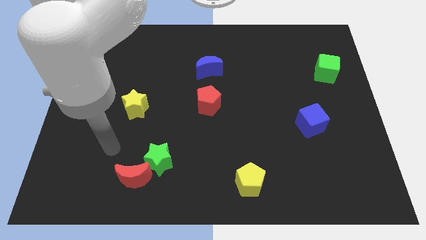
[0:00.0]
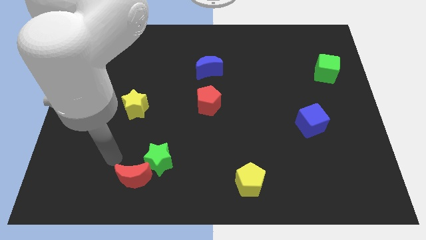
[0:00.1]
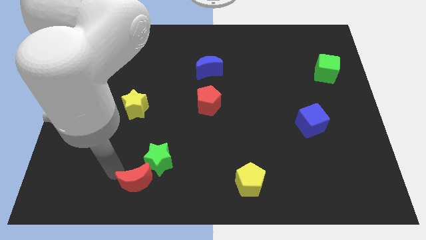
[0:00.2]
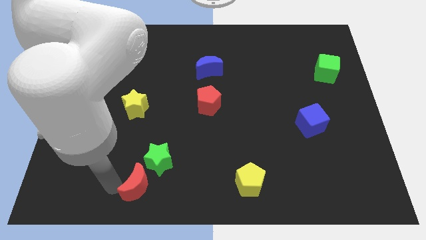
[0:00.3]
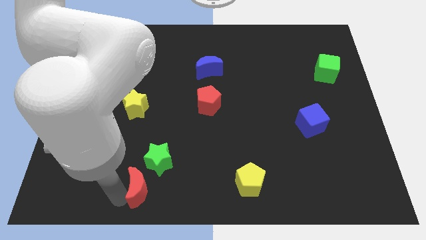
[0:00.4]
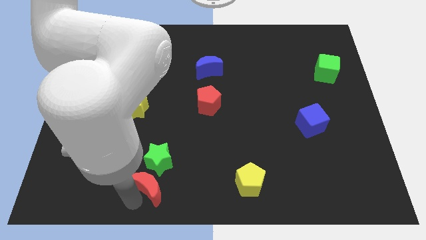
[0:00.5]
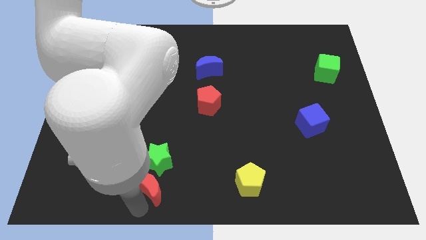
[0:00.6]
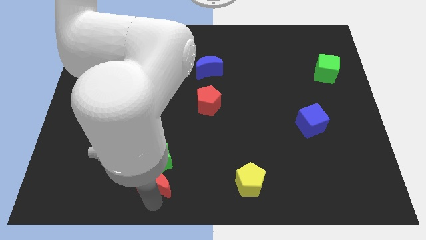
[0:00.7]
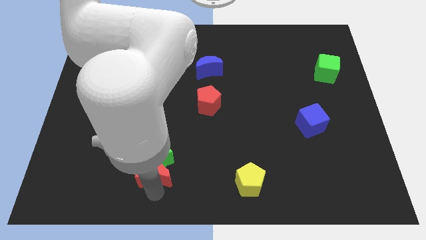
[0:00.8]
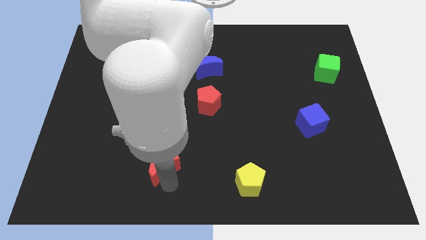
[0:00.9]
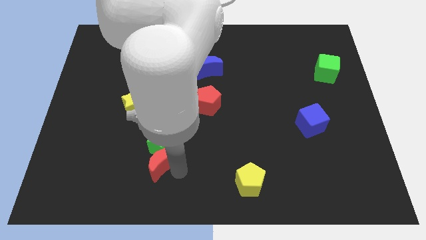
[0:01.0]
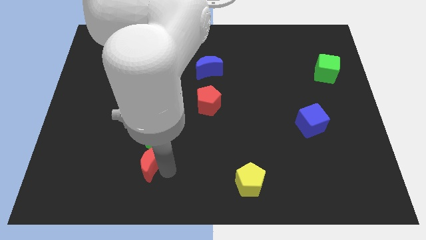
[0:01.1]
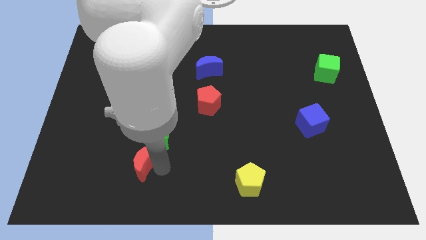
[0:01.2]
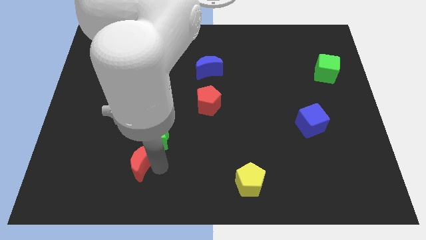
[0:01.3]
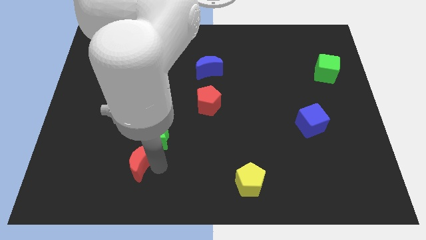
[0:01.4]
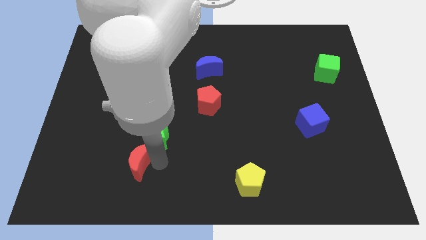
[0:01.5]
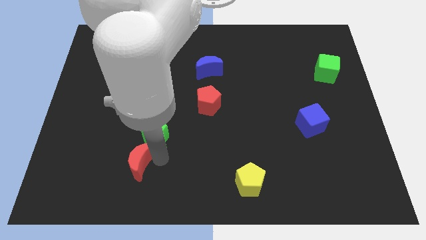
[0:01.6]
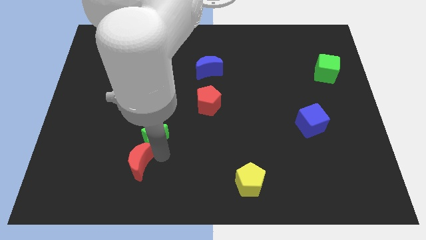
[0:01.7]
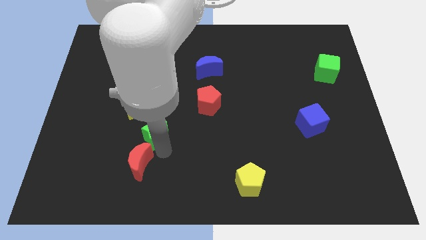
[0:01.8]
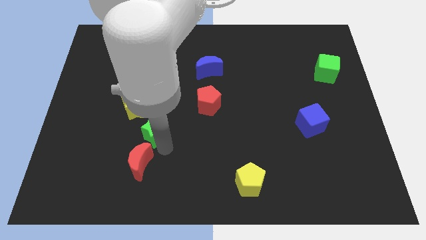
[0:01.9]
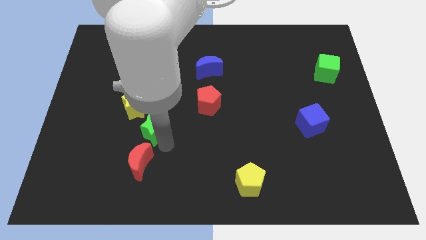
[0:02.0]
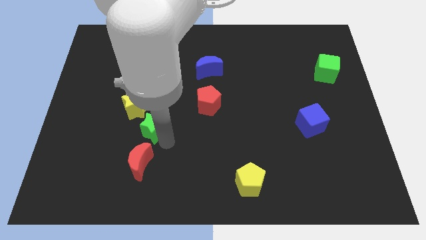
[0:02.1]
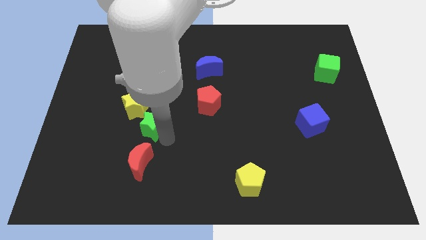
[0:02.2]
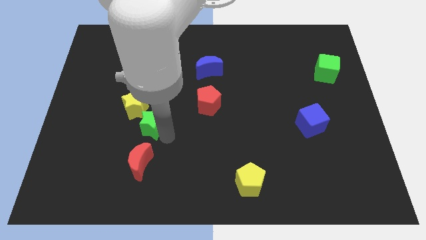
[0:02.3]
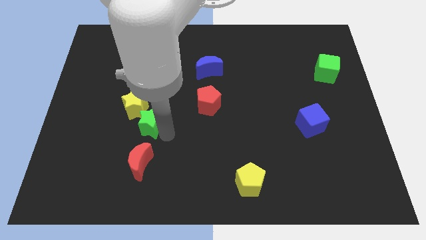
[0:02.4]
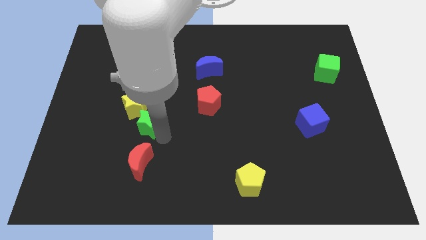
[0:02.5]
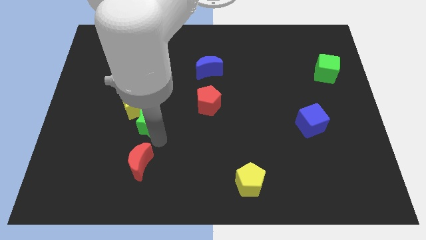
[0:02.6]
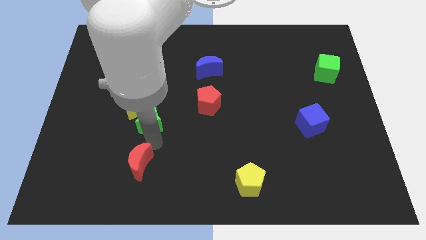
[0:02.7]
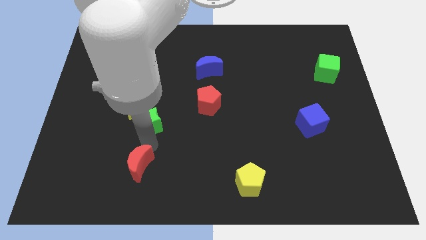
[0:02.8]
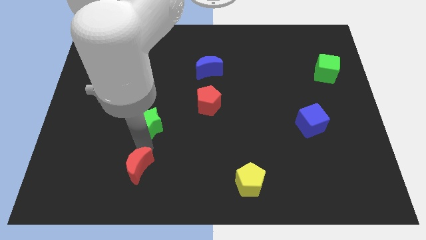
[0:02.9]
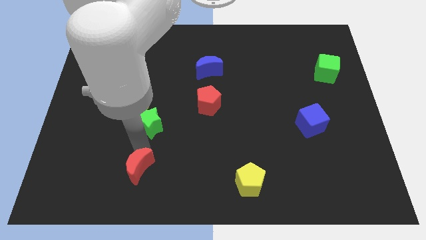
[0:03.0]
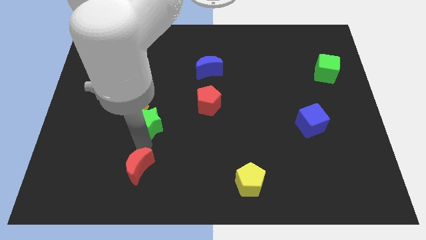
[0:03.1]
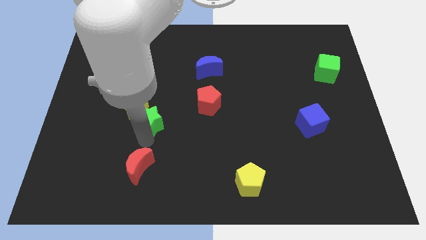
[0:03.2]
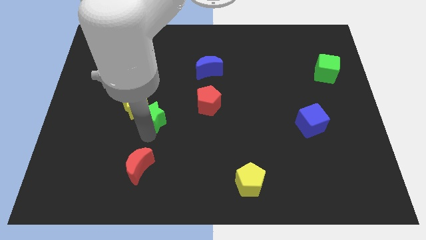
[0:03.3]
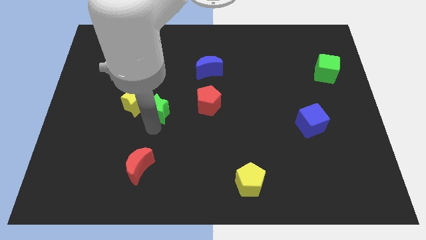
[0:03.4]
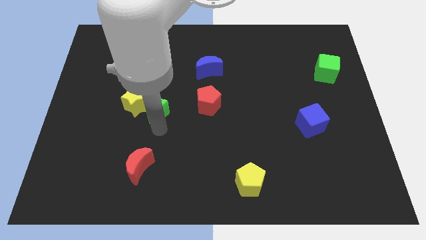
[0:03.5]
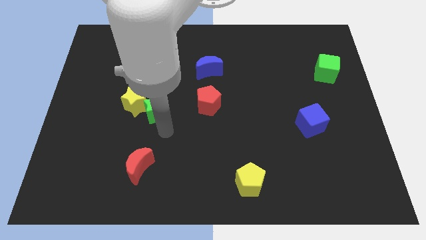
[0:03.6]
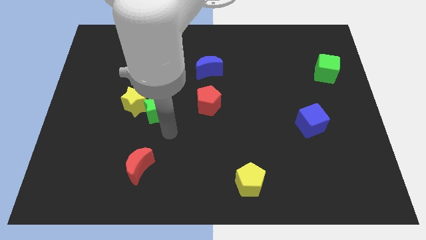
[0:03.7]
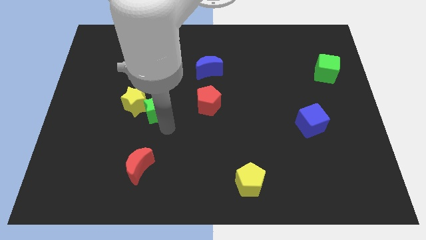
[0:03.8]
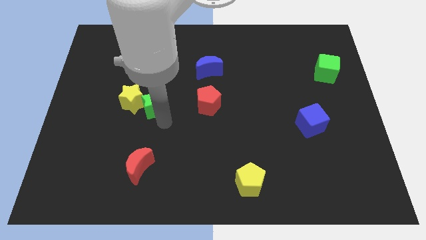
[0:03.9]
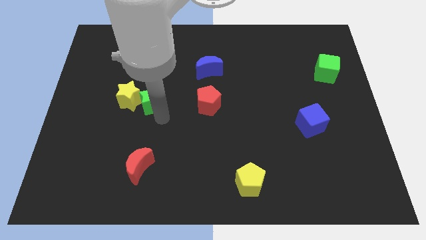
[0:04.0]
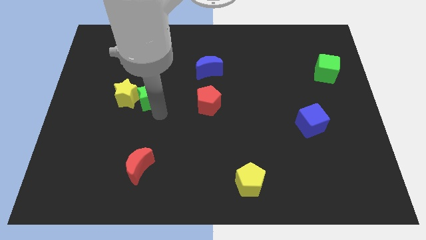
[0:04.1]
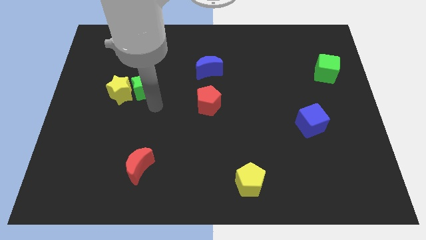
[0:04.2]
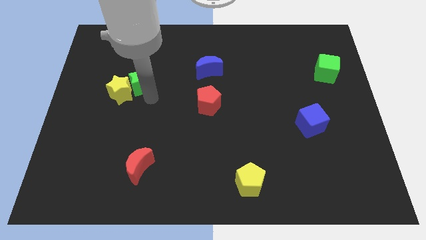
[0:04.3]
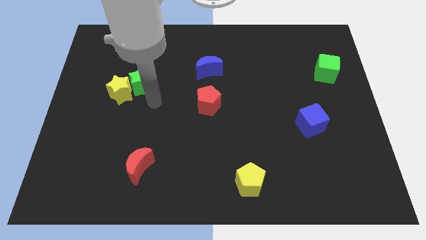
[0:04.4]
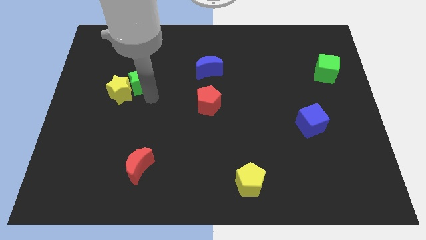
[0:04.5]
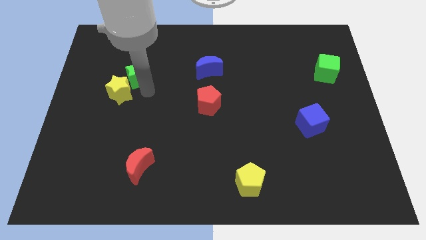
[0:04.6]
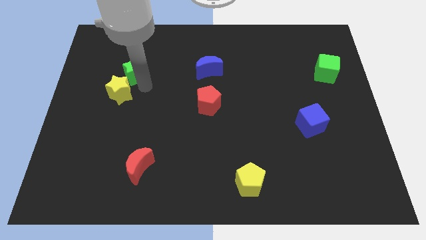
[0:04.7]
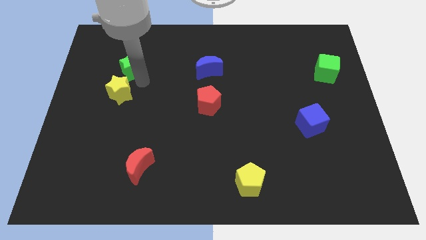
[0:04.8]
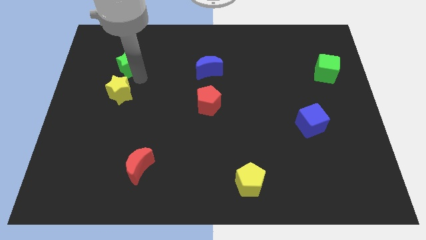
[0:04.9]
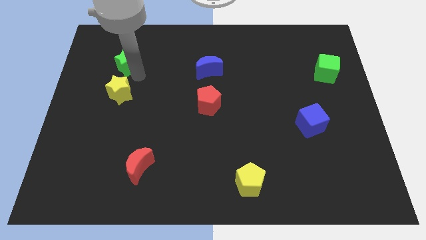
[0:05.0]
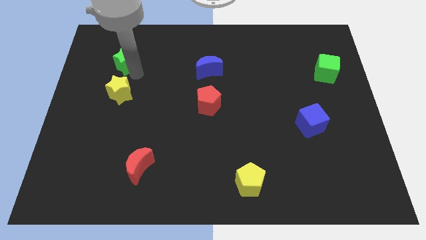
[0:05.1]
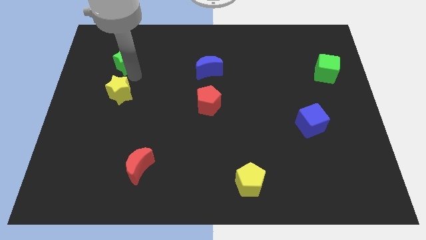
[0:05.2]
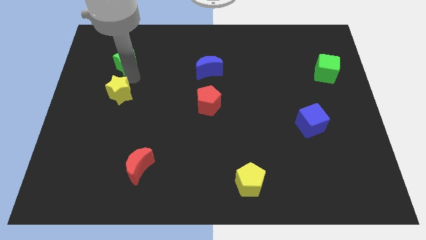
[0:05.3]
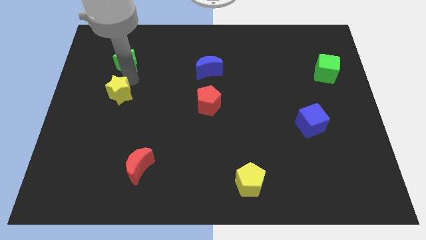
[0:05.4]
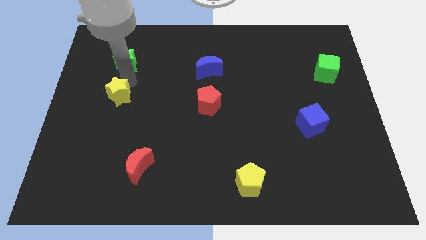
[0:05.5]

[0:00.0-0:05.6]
put the green star to the top of the yellow star

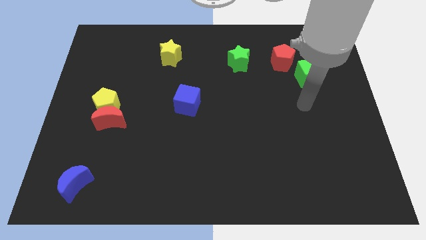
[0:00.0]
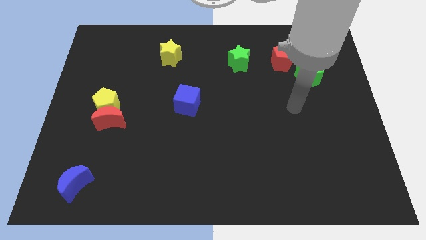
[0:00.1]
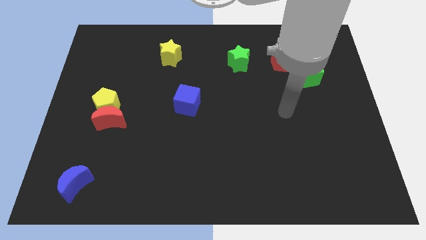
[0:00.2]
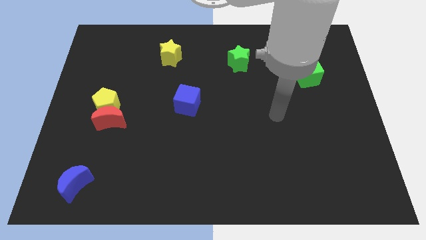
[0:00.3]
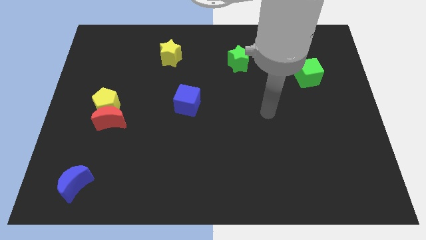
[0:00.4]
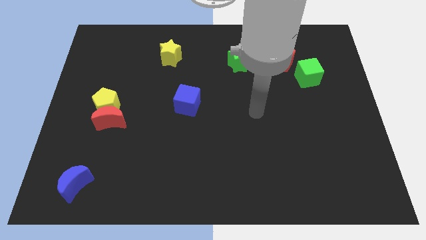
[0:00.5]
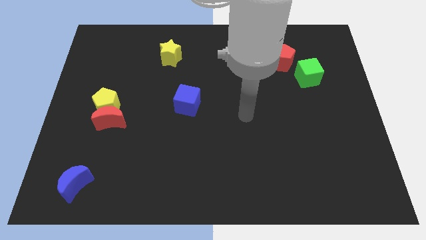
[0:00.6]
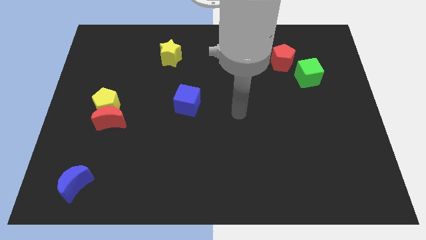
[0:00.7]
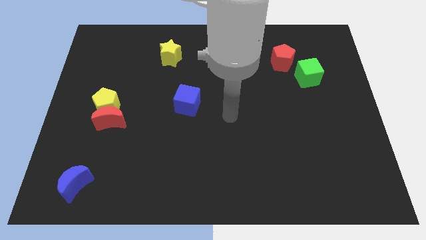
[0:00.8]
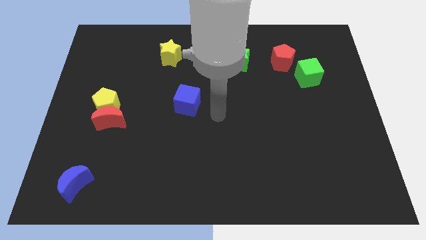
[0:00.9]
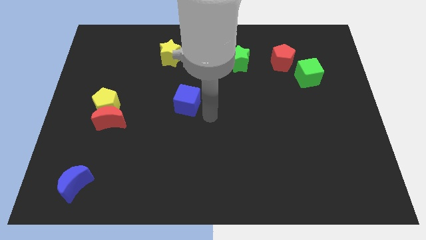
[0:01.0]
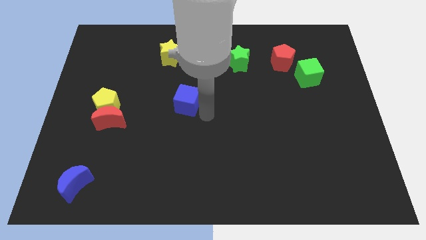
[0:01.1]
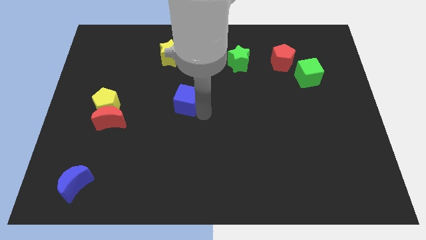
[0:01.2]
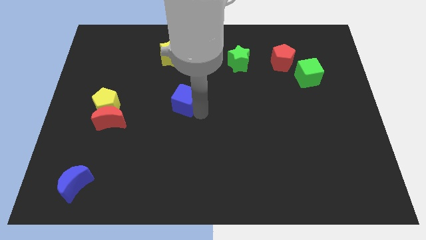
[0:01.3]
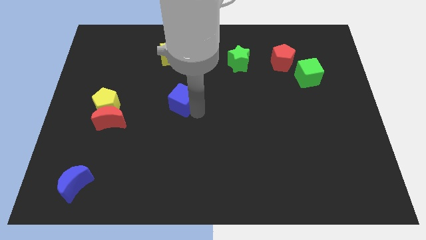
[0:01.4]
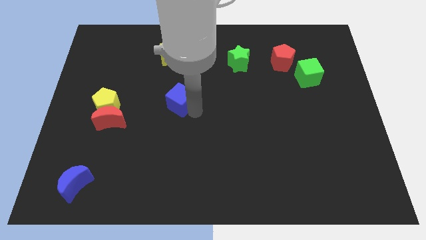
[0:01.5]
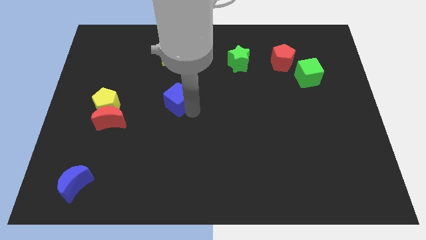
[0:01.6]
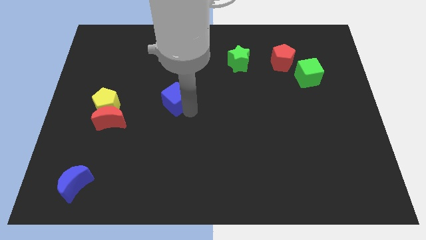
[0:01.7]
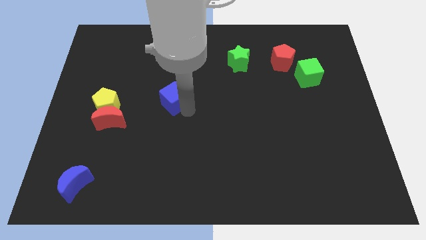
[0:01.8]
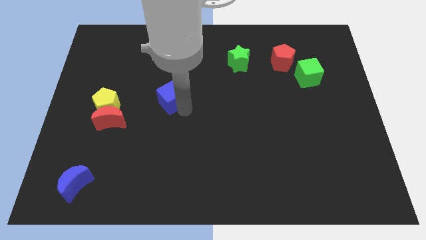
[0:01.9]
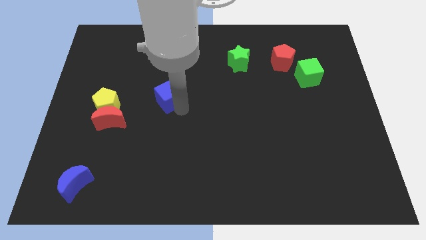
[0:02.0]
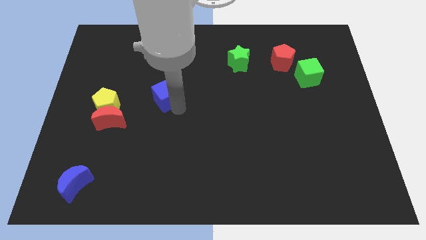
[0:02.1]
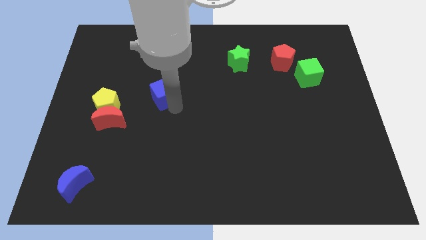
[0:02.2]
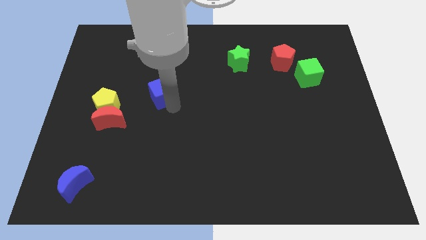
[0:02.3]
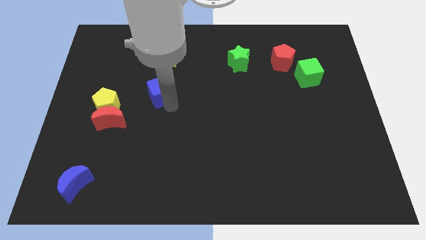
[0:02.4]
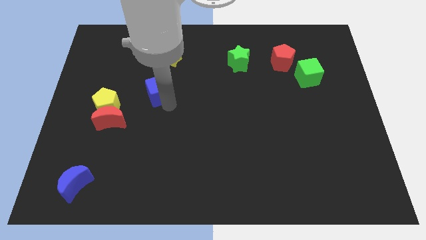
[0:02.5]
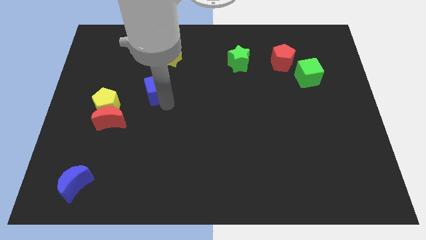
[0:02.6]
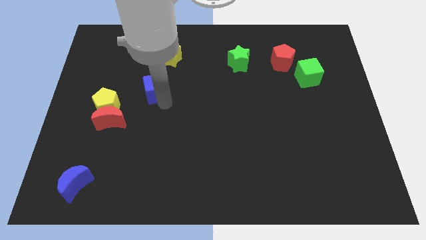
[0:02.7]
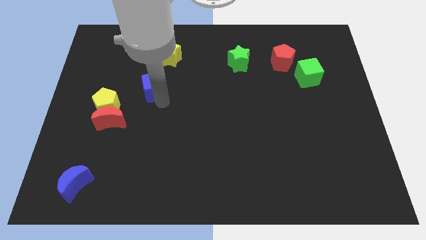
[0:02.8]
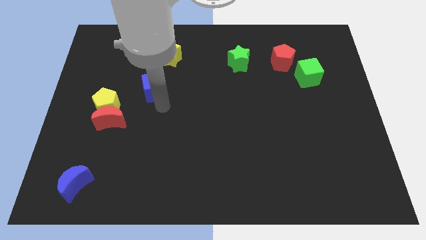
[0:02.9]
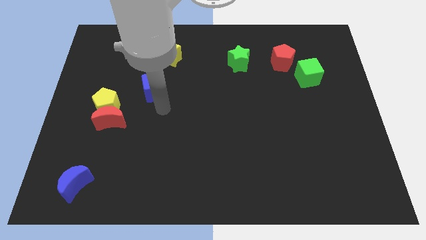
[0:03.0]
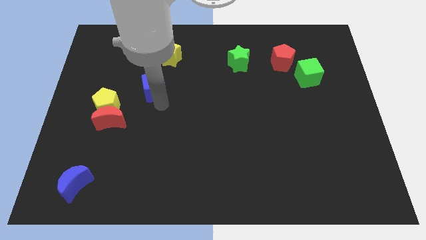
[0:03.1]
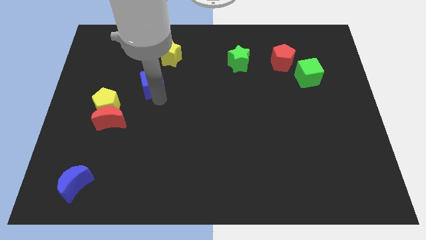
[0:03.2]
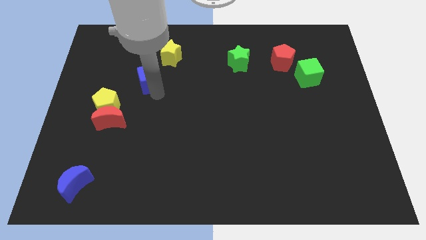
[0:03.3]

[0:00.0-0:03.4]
put the blue cube to the bottom left side of the yellow star
